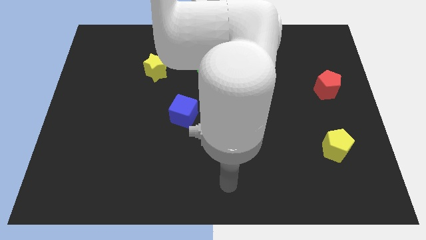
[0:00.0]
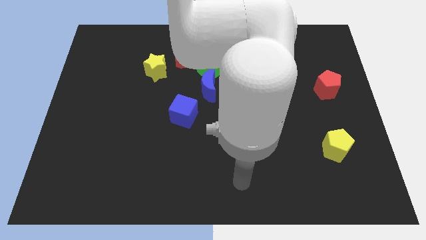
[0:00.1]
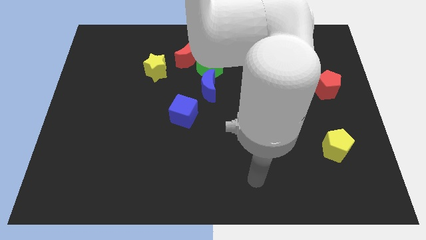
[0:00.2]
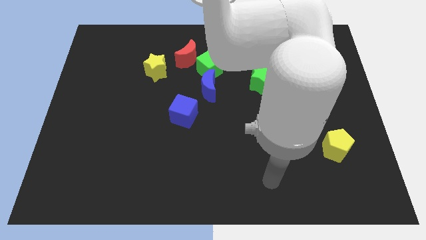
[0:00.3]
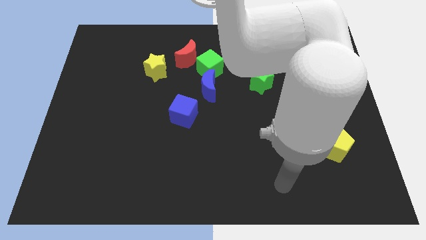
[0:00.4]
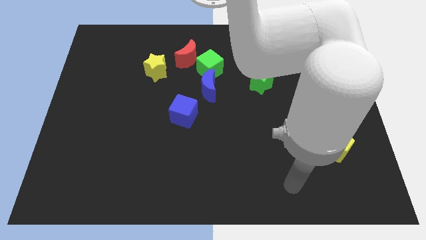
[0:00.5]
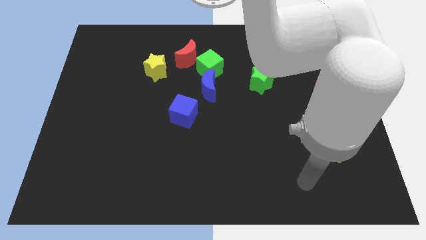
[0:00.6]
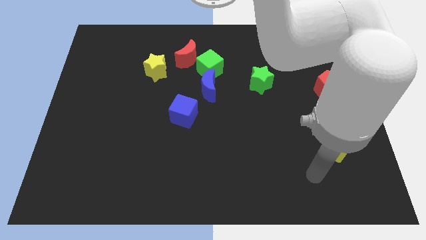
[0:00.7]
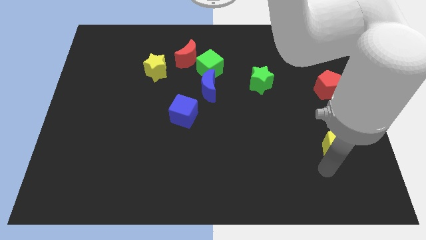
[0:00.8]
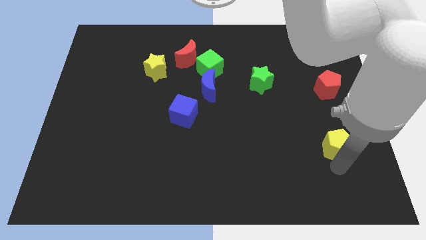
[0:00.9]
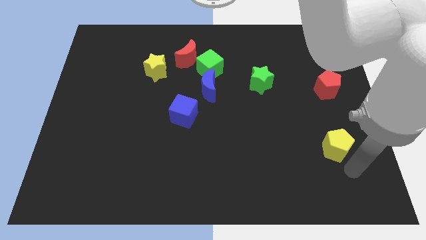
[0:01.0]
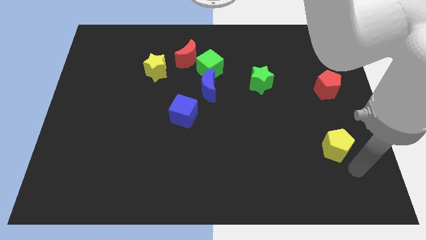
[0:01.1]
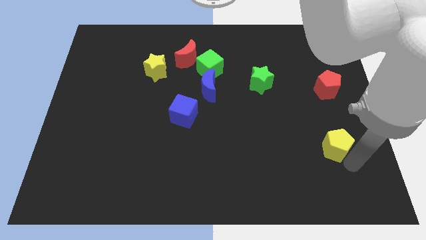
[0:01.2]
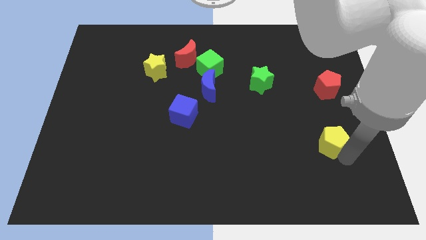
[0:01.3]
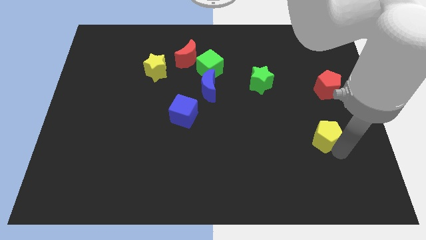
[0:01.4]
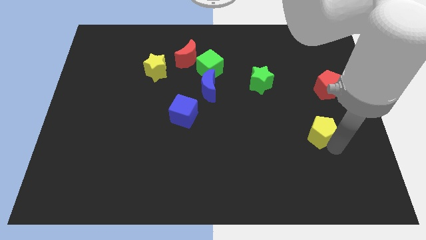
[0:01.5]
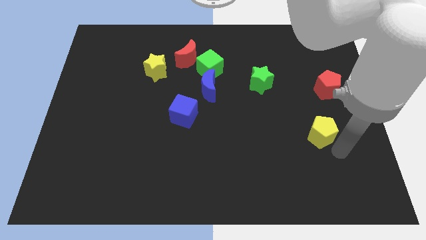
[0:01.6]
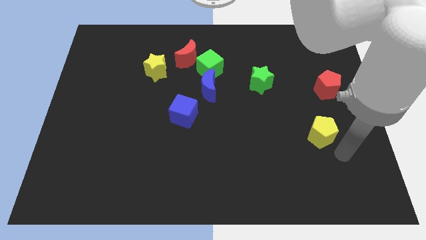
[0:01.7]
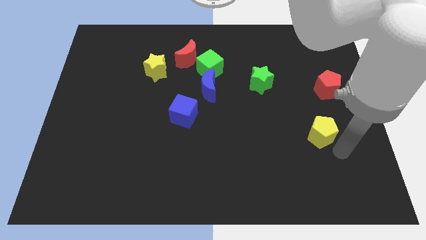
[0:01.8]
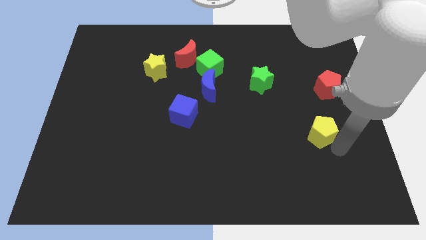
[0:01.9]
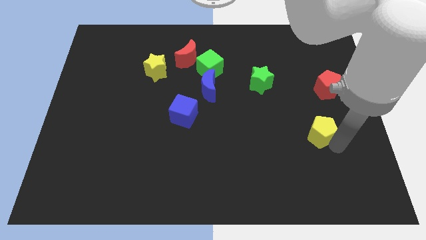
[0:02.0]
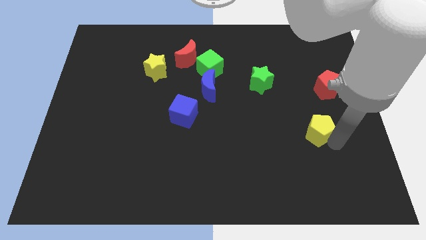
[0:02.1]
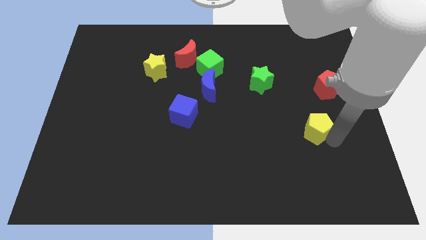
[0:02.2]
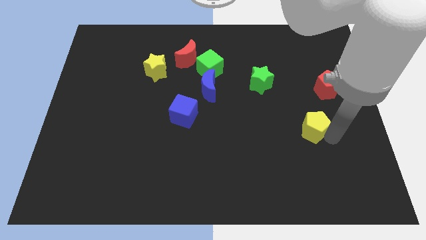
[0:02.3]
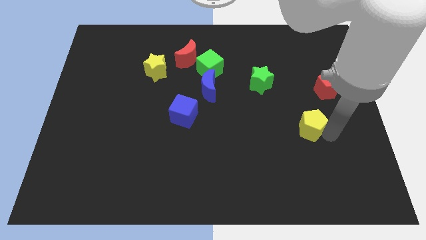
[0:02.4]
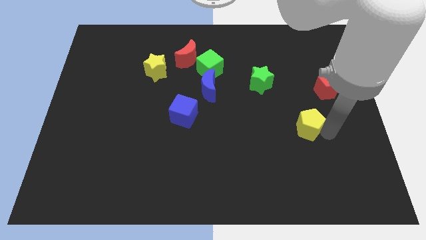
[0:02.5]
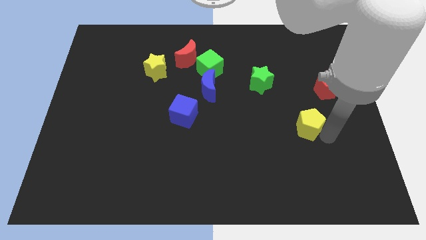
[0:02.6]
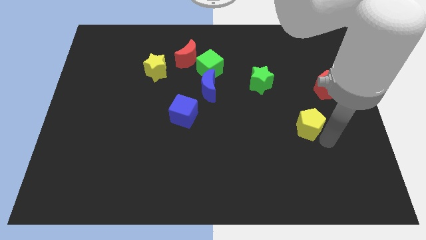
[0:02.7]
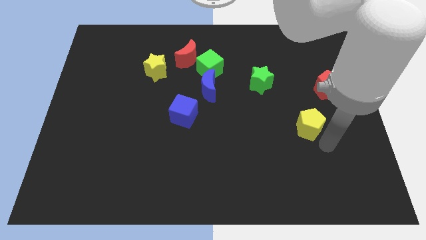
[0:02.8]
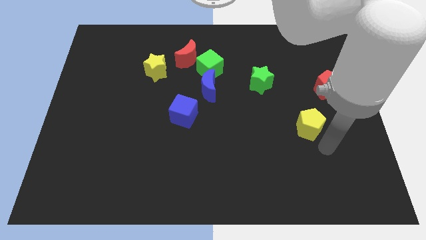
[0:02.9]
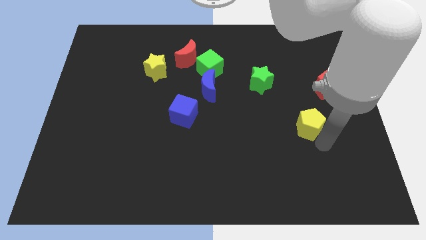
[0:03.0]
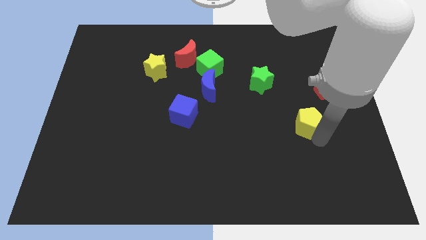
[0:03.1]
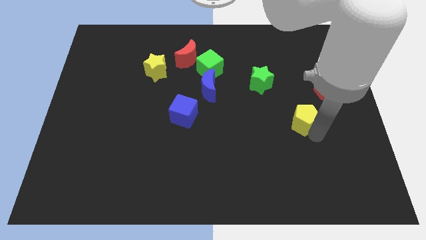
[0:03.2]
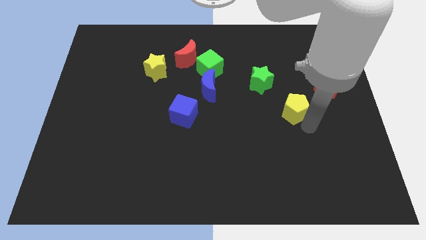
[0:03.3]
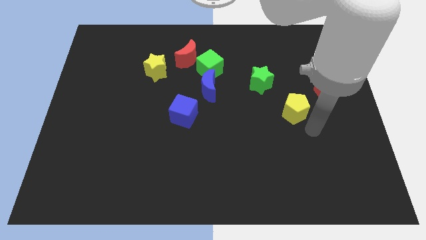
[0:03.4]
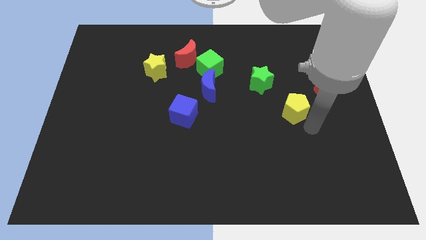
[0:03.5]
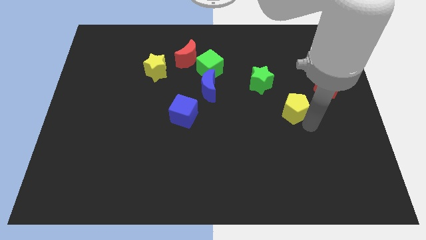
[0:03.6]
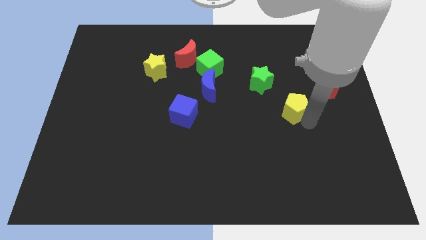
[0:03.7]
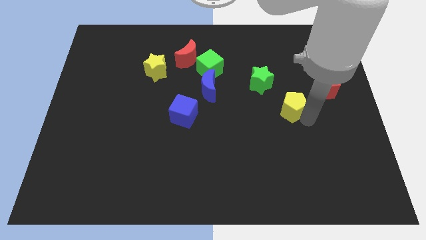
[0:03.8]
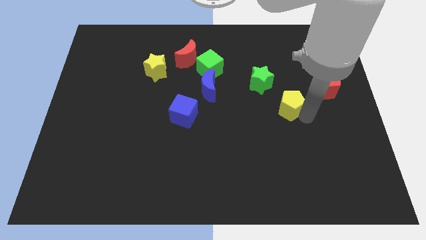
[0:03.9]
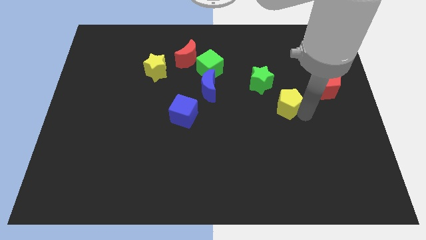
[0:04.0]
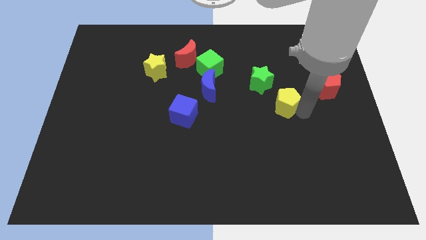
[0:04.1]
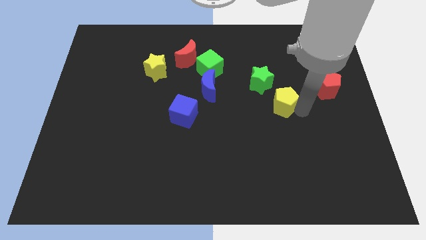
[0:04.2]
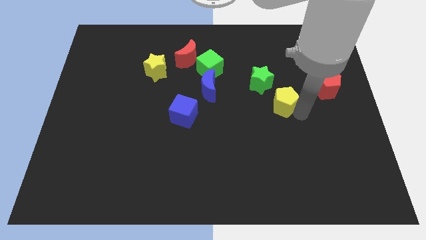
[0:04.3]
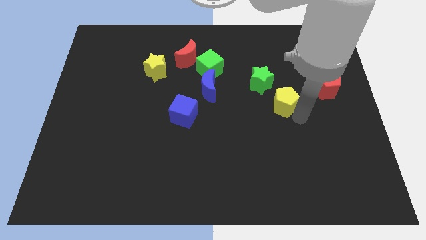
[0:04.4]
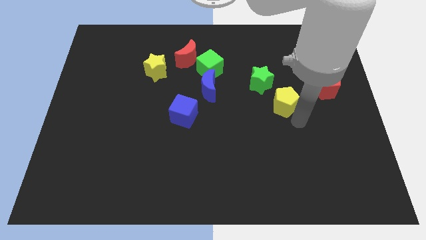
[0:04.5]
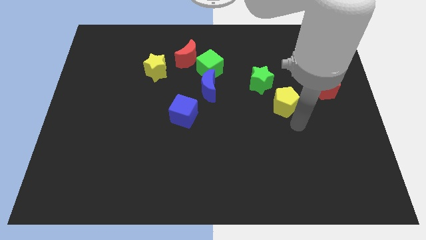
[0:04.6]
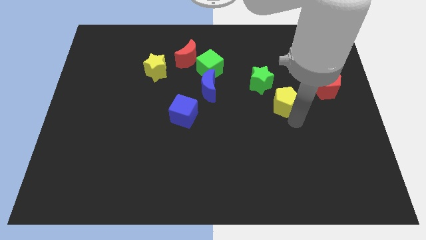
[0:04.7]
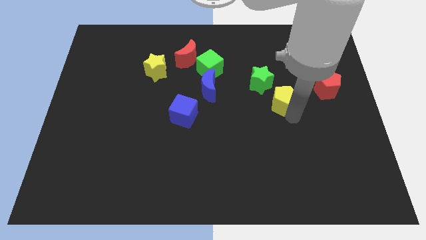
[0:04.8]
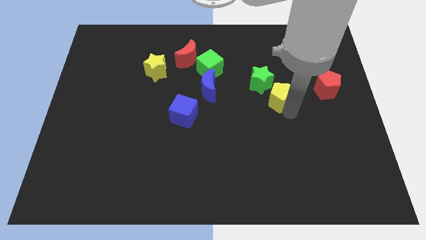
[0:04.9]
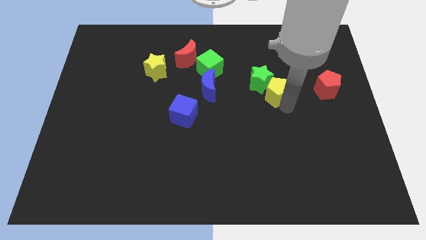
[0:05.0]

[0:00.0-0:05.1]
push the yellow pentagon to the green star

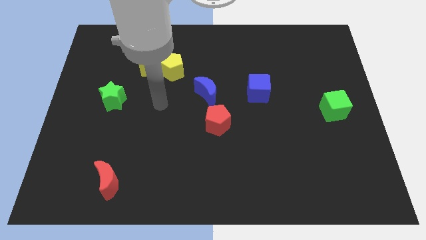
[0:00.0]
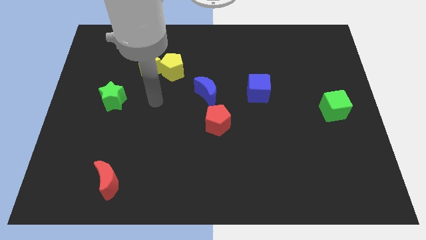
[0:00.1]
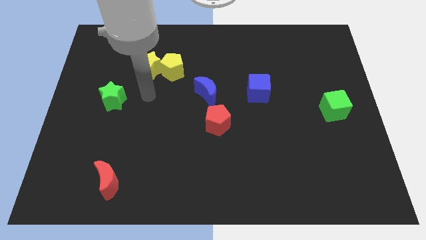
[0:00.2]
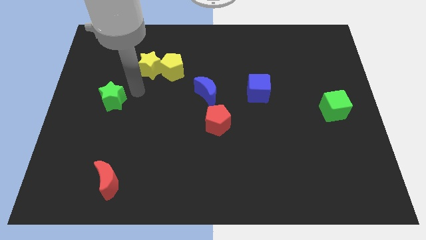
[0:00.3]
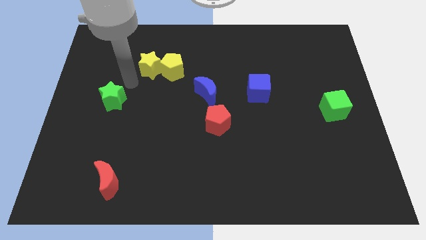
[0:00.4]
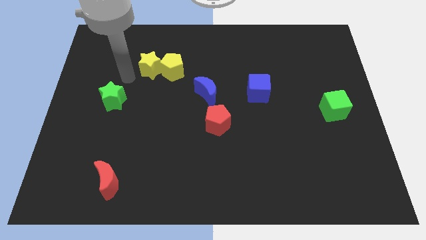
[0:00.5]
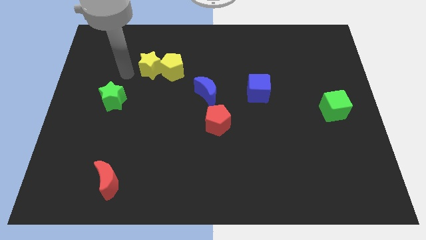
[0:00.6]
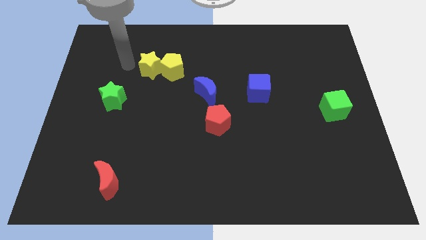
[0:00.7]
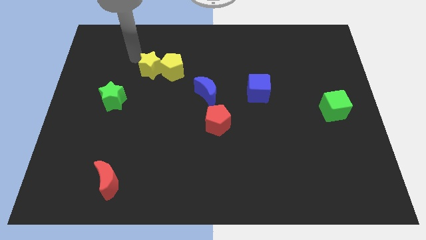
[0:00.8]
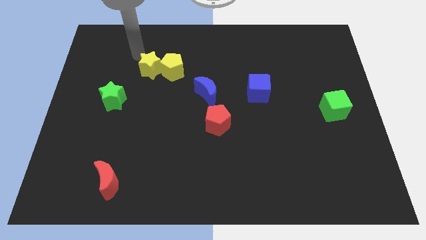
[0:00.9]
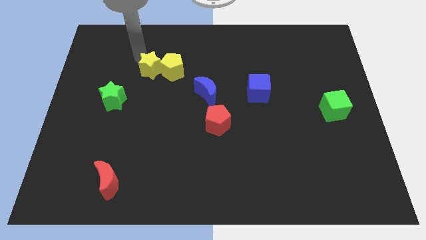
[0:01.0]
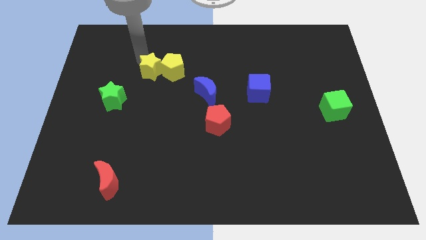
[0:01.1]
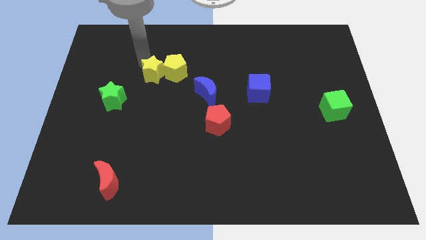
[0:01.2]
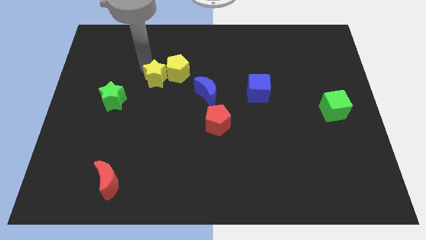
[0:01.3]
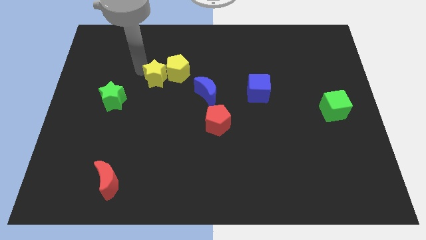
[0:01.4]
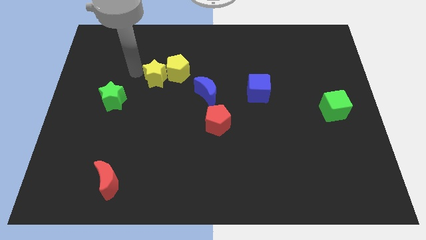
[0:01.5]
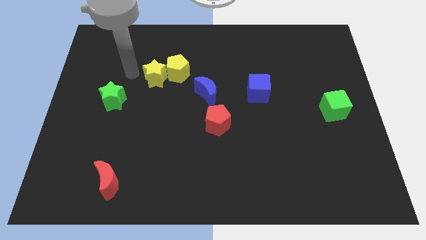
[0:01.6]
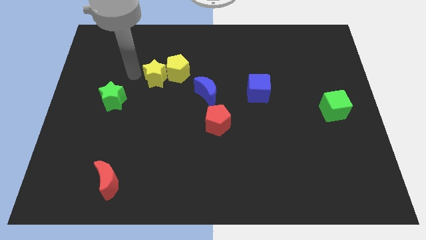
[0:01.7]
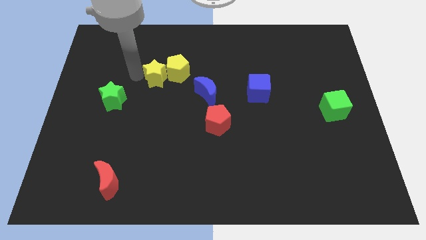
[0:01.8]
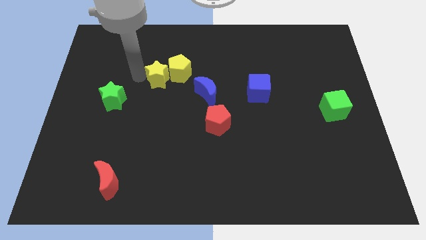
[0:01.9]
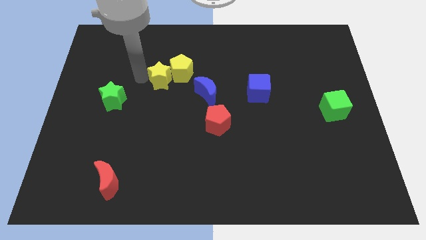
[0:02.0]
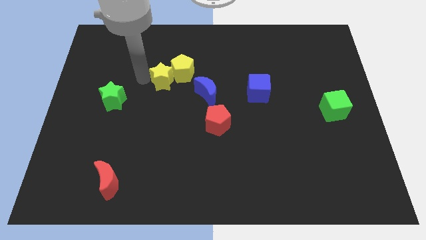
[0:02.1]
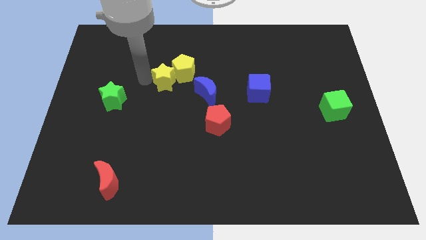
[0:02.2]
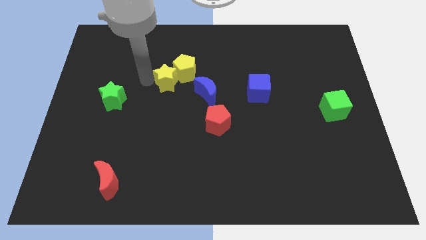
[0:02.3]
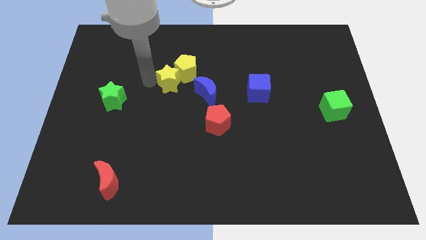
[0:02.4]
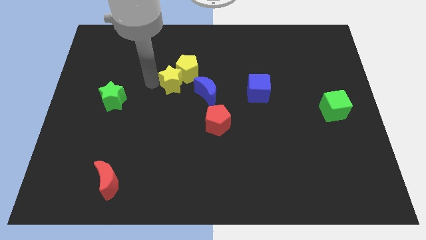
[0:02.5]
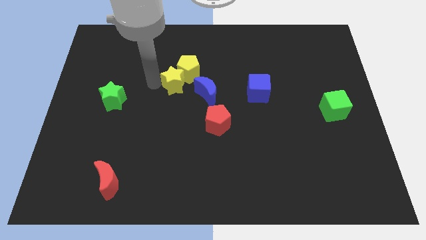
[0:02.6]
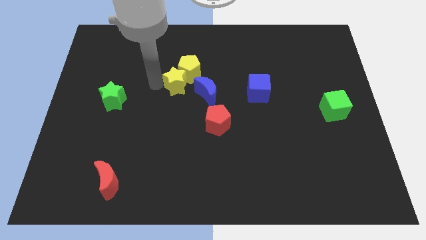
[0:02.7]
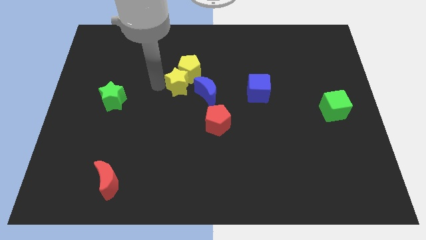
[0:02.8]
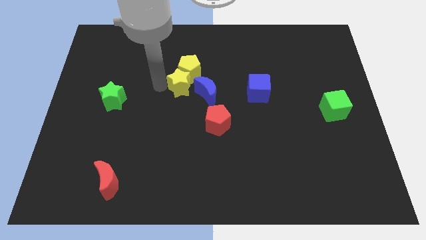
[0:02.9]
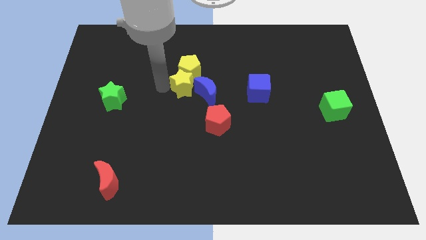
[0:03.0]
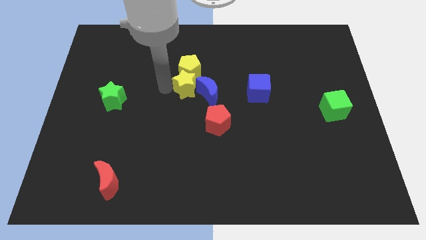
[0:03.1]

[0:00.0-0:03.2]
move the yellow star towards the blue moon
